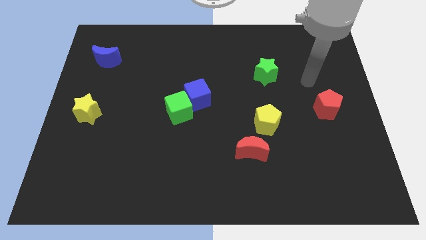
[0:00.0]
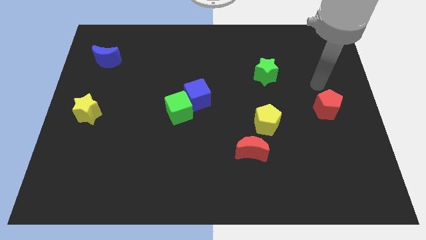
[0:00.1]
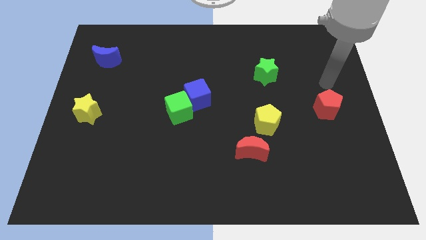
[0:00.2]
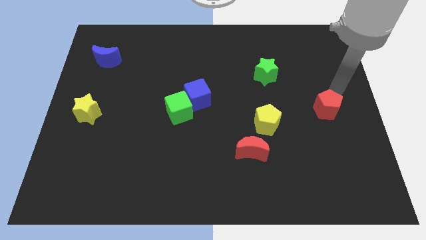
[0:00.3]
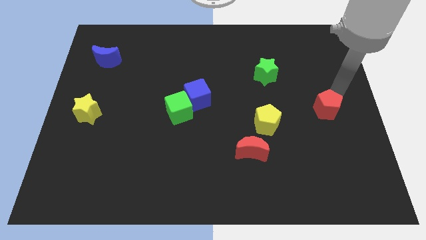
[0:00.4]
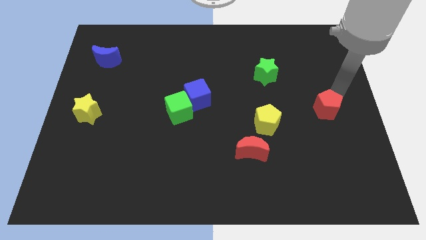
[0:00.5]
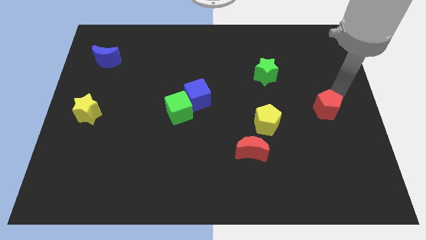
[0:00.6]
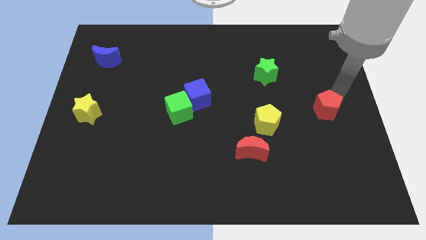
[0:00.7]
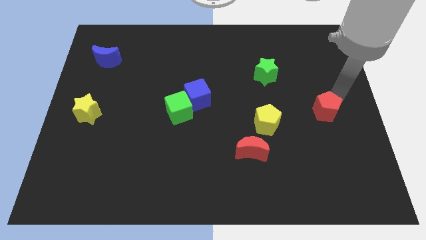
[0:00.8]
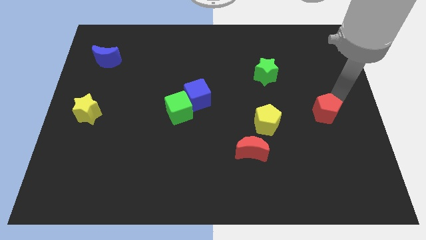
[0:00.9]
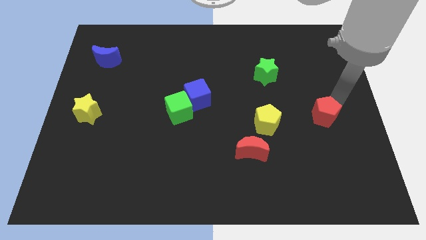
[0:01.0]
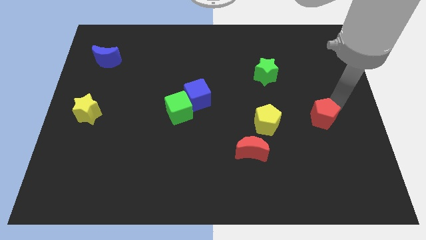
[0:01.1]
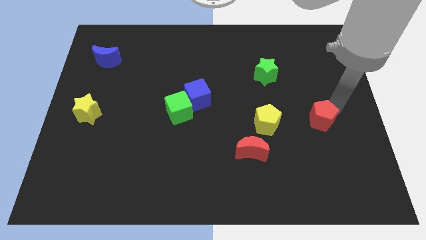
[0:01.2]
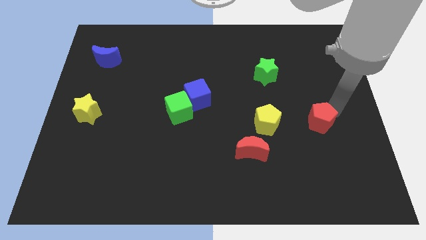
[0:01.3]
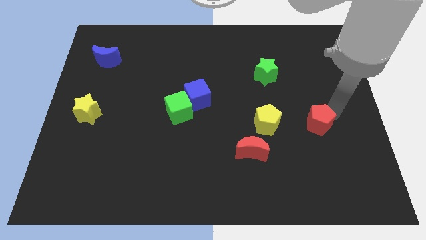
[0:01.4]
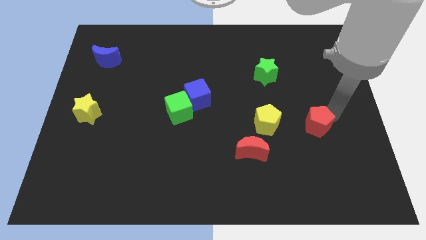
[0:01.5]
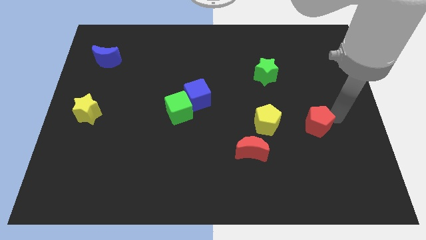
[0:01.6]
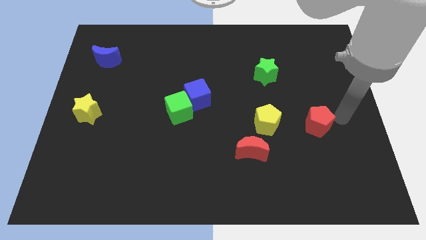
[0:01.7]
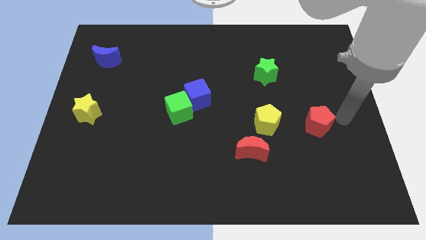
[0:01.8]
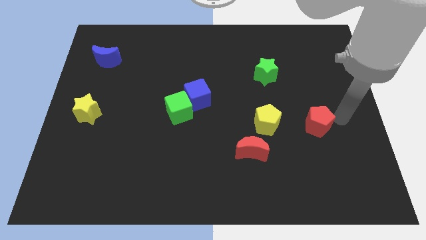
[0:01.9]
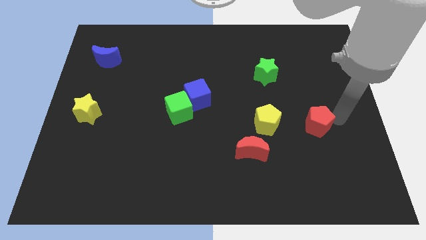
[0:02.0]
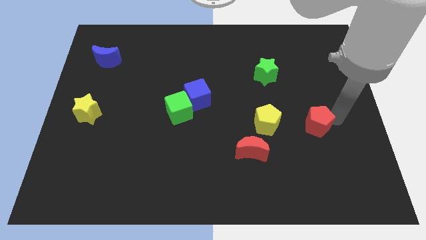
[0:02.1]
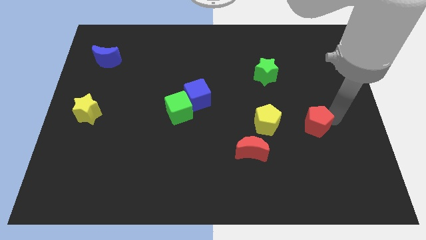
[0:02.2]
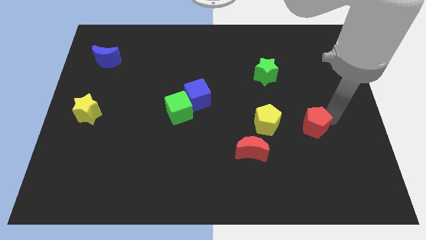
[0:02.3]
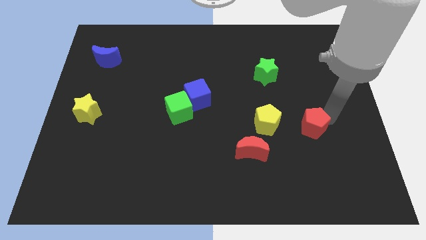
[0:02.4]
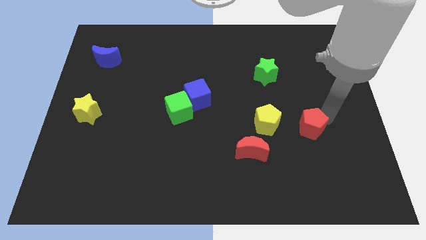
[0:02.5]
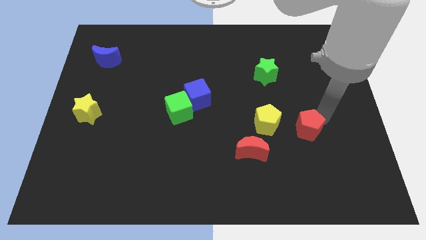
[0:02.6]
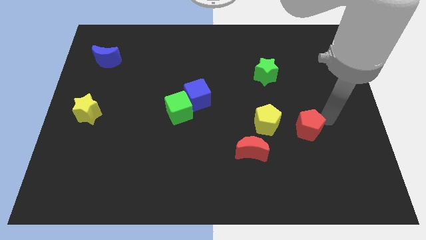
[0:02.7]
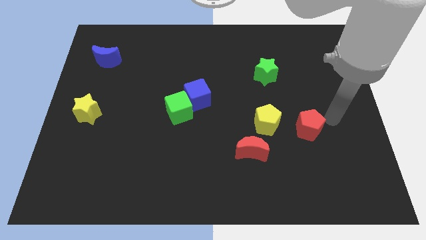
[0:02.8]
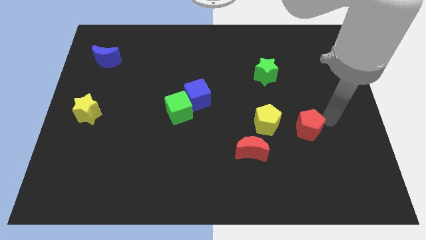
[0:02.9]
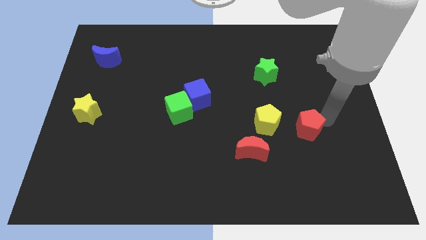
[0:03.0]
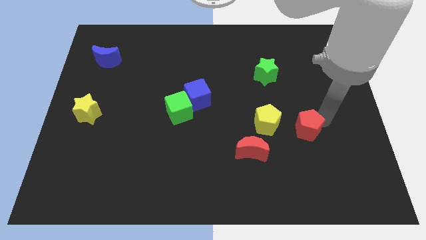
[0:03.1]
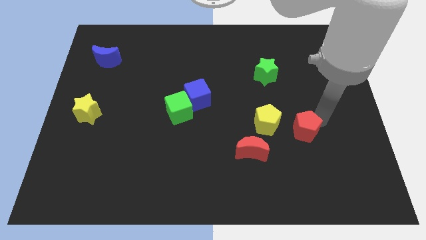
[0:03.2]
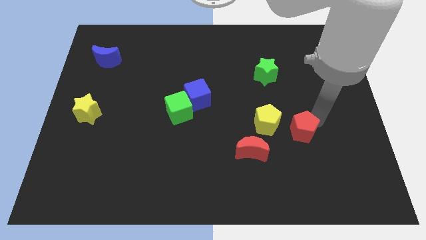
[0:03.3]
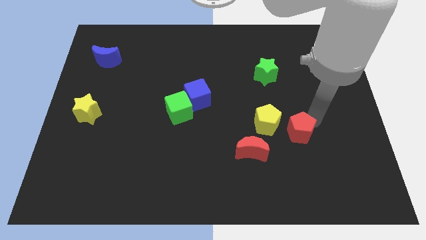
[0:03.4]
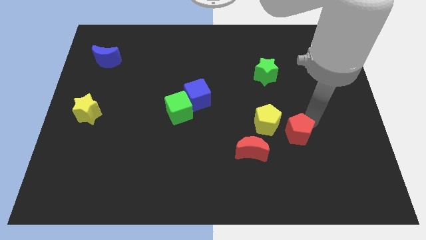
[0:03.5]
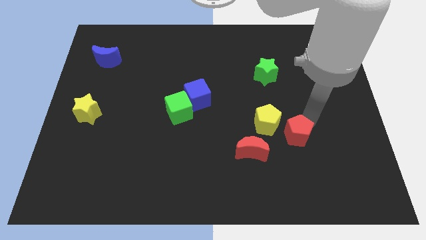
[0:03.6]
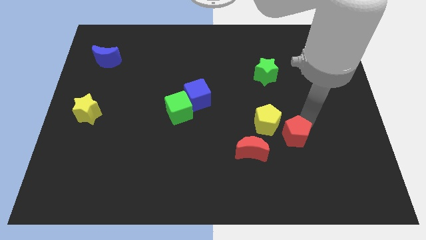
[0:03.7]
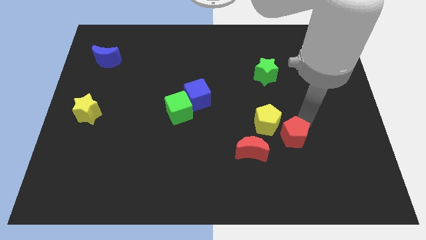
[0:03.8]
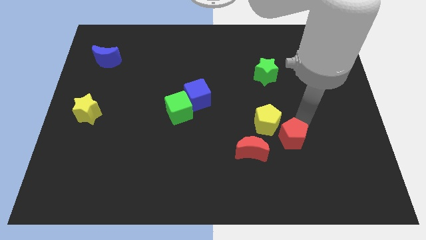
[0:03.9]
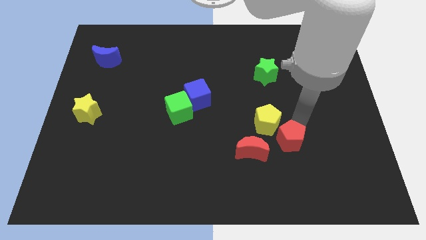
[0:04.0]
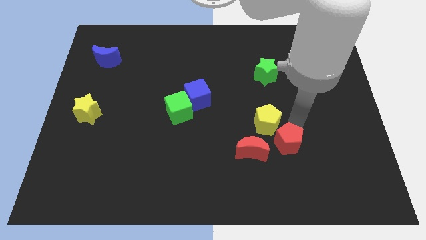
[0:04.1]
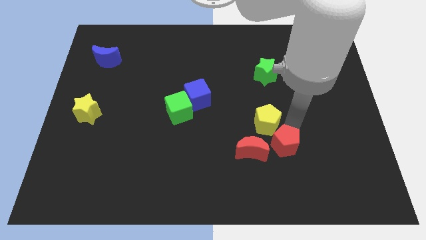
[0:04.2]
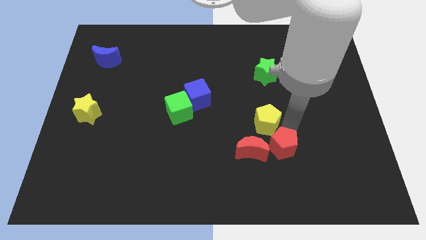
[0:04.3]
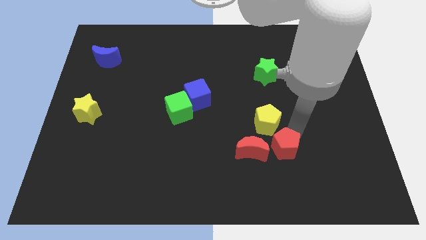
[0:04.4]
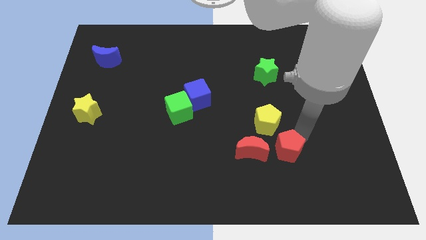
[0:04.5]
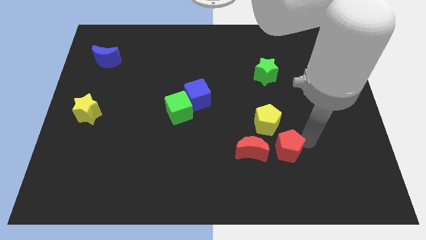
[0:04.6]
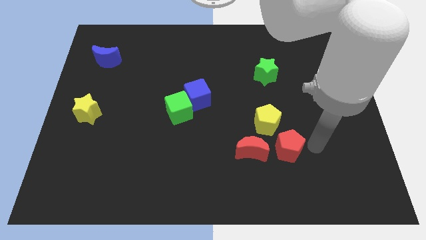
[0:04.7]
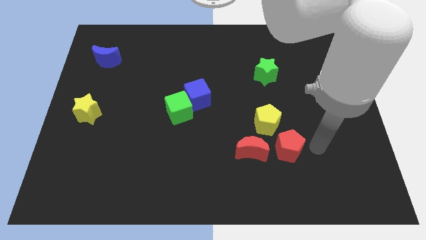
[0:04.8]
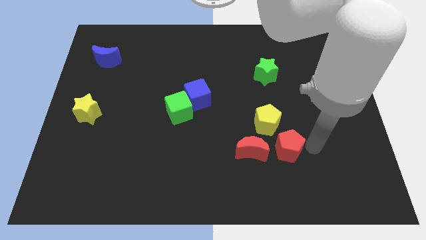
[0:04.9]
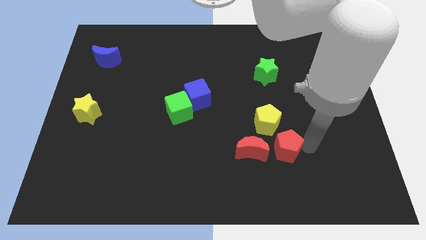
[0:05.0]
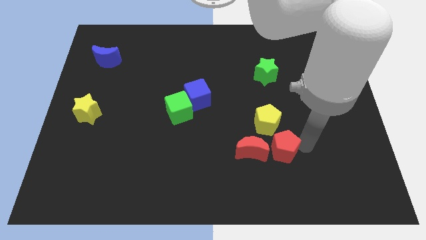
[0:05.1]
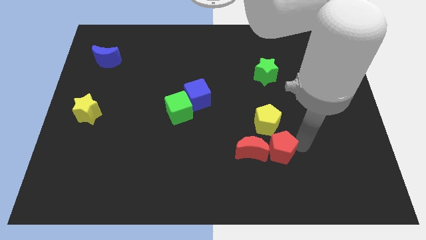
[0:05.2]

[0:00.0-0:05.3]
move the red pentagon to the red moon

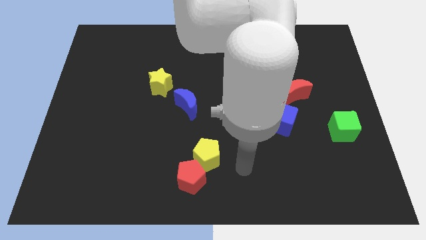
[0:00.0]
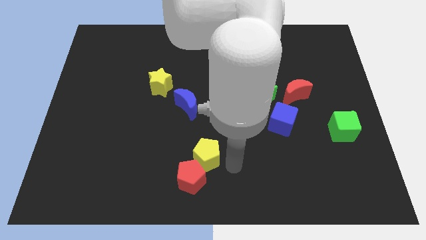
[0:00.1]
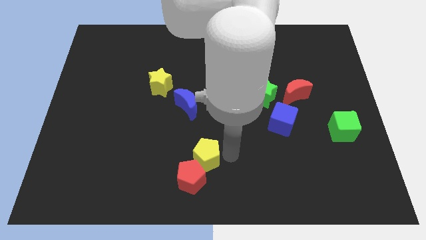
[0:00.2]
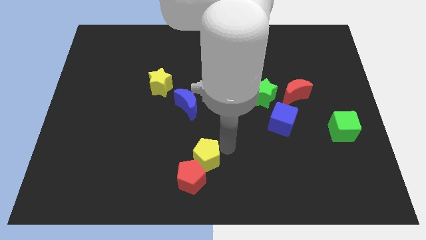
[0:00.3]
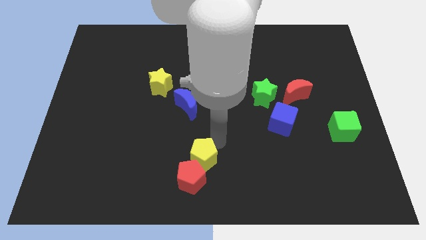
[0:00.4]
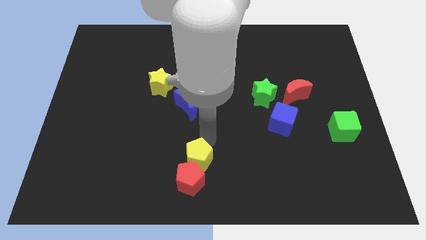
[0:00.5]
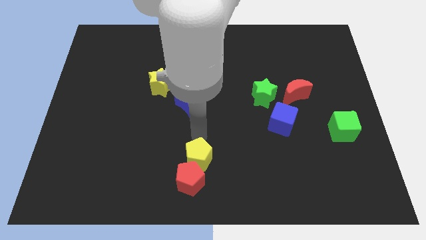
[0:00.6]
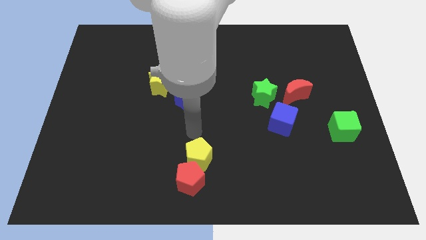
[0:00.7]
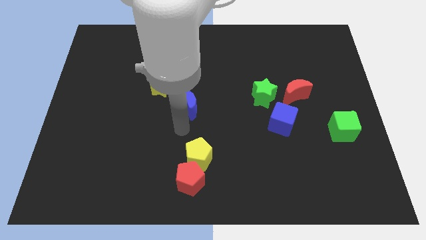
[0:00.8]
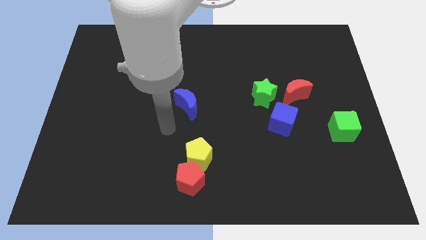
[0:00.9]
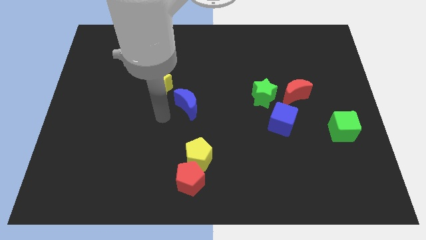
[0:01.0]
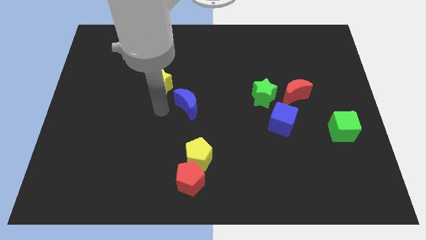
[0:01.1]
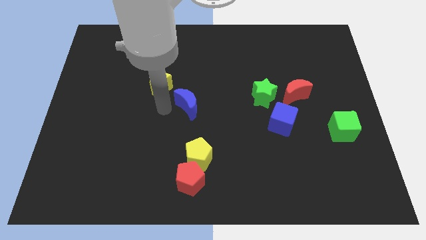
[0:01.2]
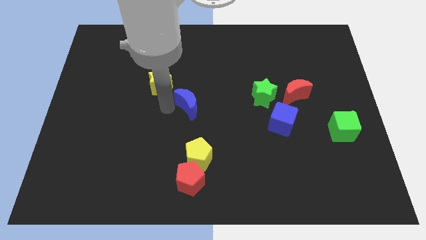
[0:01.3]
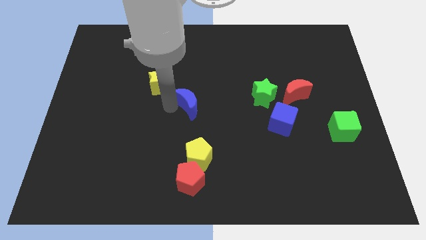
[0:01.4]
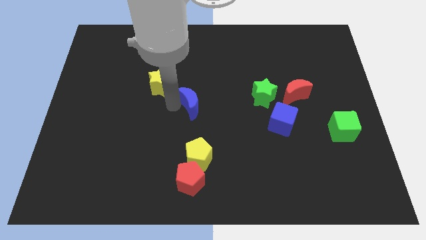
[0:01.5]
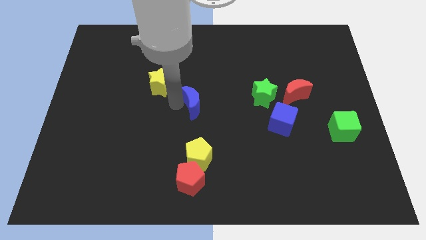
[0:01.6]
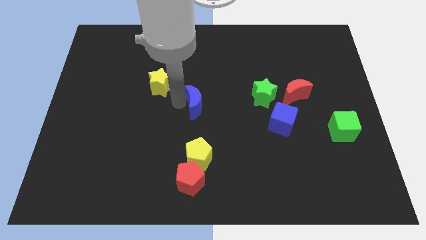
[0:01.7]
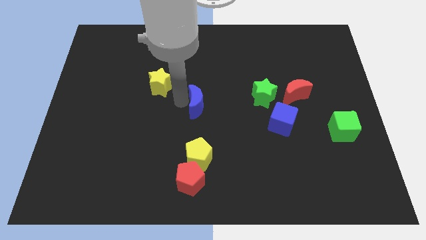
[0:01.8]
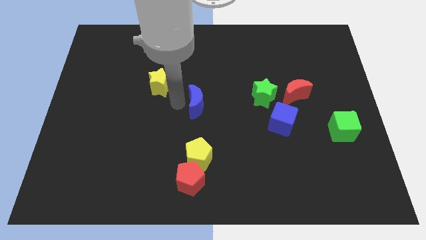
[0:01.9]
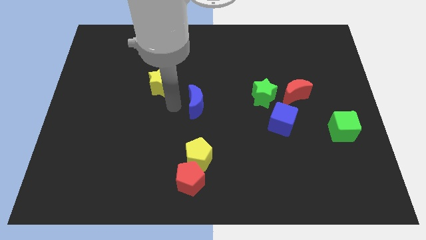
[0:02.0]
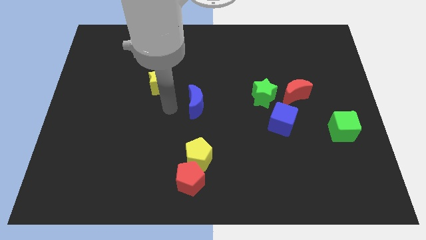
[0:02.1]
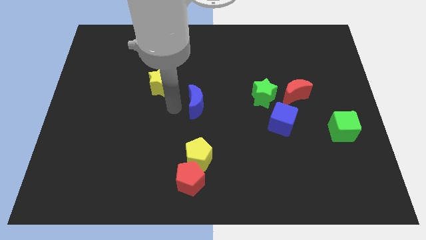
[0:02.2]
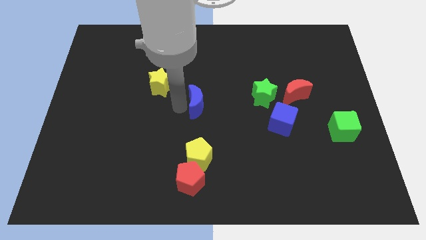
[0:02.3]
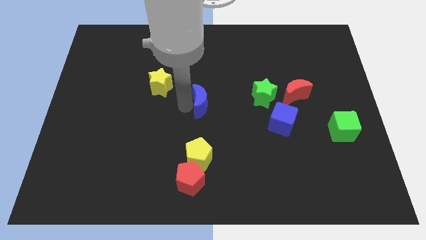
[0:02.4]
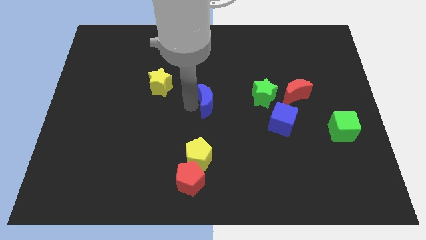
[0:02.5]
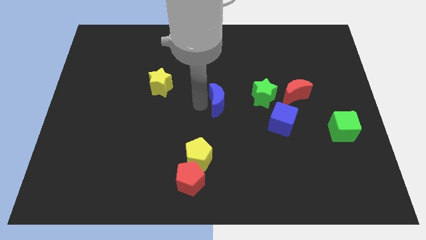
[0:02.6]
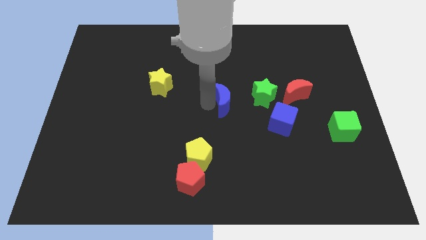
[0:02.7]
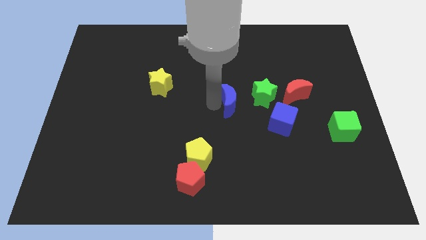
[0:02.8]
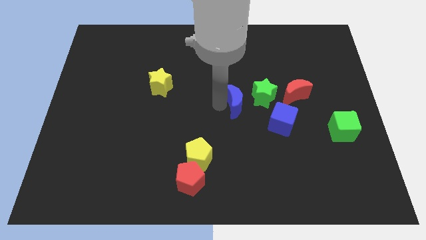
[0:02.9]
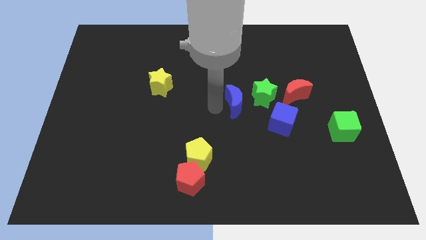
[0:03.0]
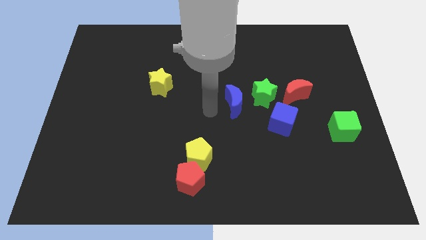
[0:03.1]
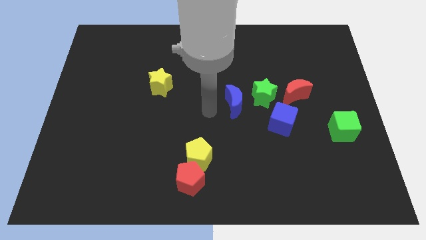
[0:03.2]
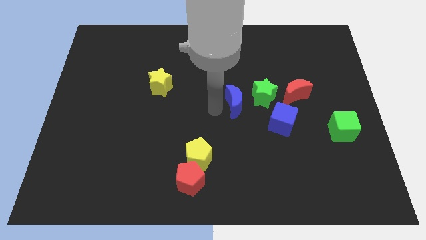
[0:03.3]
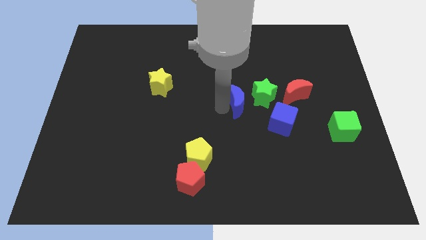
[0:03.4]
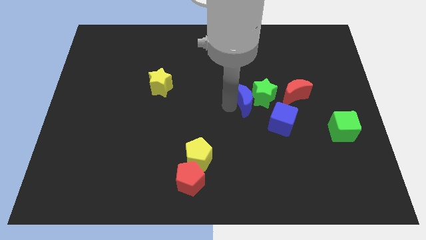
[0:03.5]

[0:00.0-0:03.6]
slide the blue moon next to the green star
